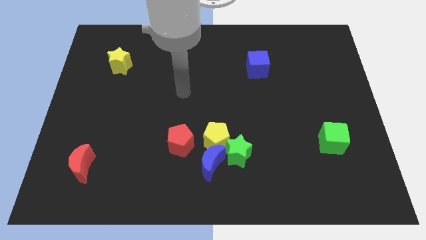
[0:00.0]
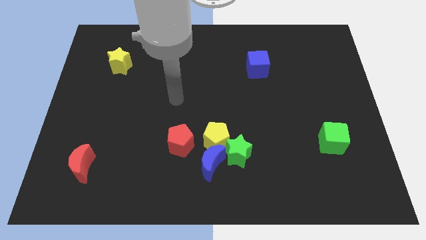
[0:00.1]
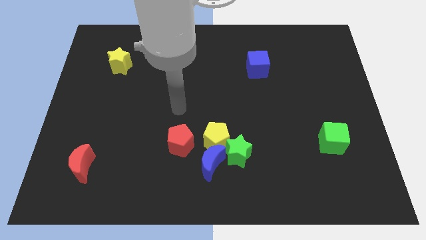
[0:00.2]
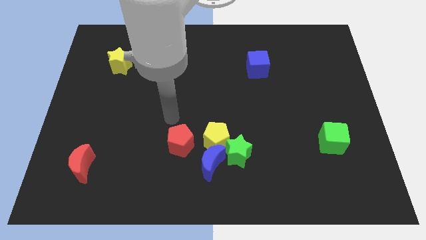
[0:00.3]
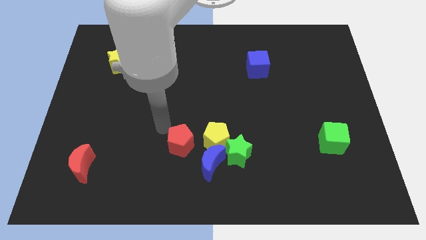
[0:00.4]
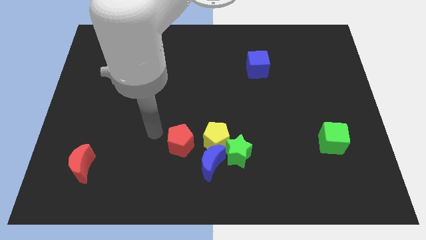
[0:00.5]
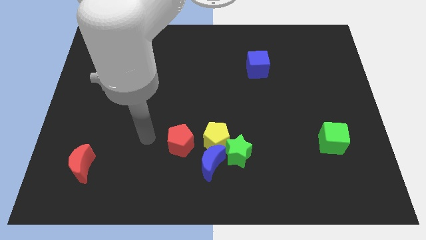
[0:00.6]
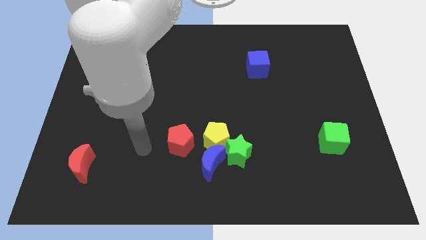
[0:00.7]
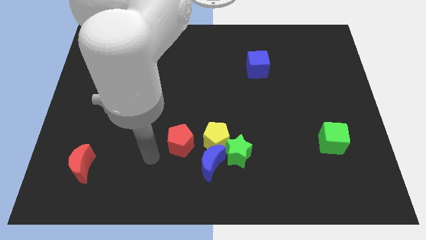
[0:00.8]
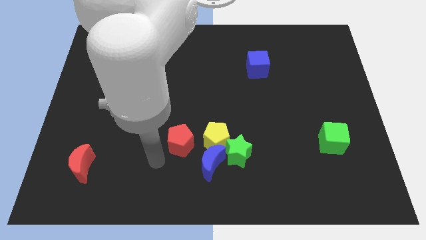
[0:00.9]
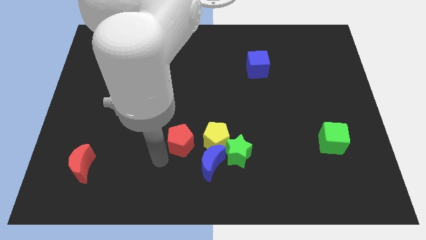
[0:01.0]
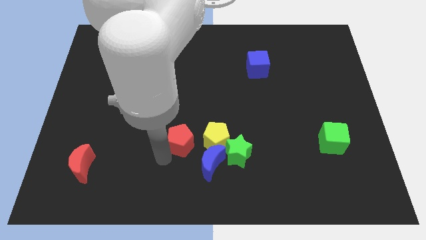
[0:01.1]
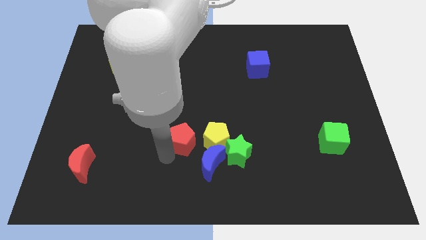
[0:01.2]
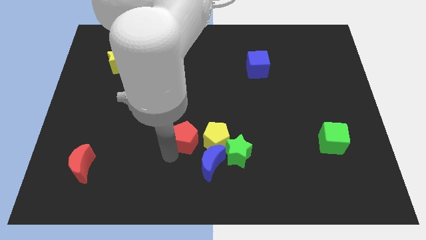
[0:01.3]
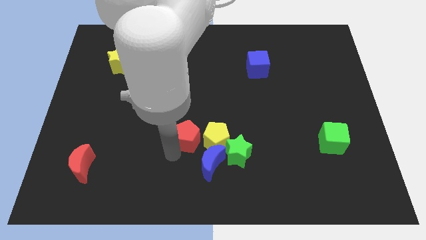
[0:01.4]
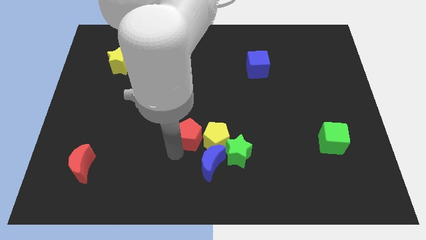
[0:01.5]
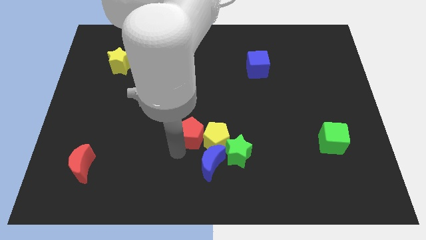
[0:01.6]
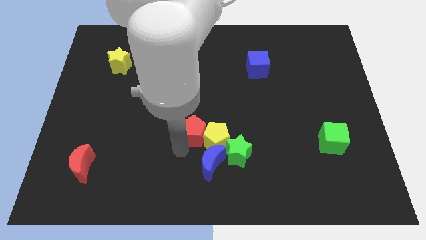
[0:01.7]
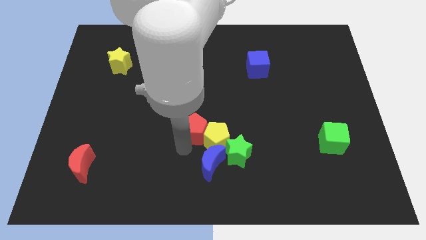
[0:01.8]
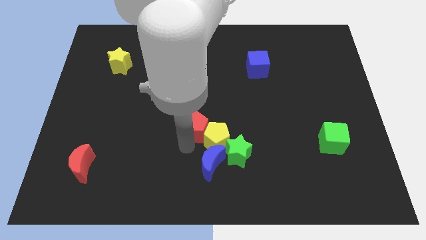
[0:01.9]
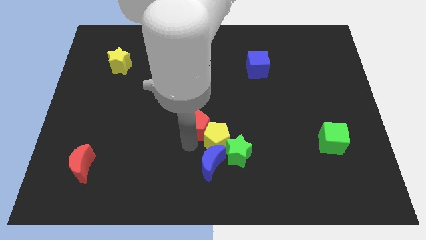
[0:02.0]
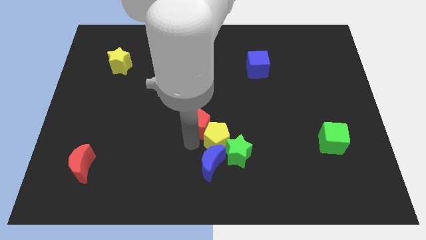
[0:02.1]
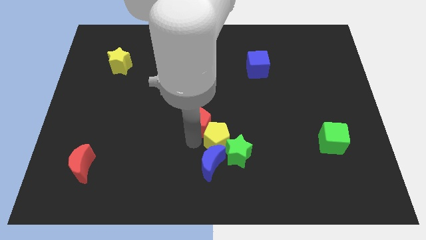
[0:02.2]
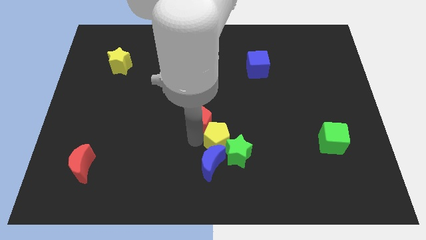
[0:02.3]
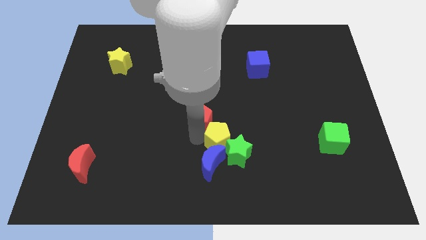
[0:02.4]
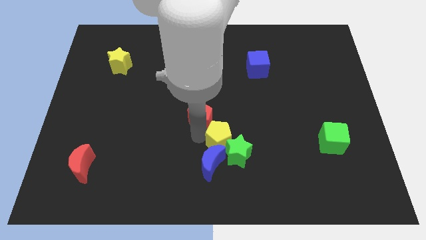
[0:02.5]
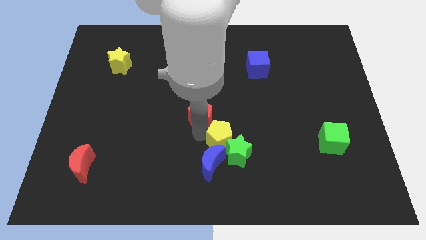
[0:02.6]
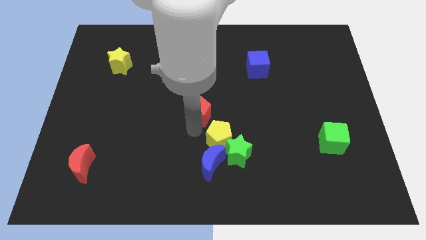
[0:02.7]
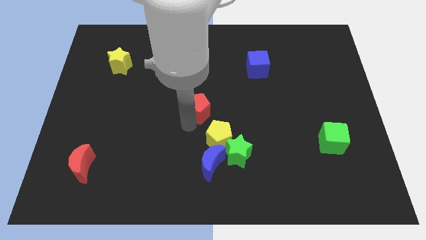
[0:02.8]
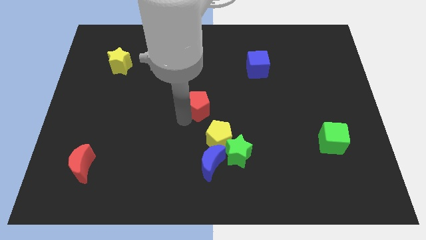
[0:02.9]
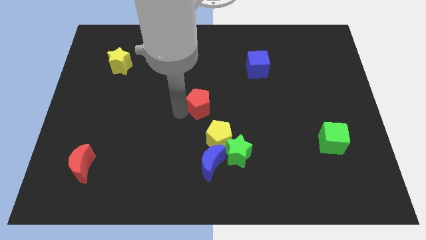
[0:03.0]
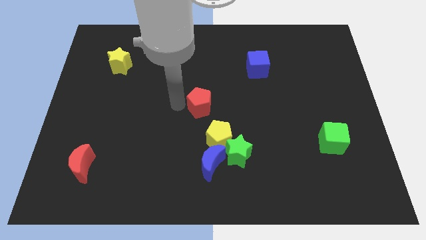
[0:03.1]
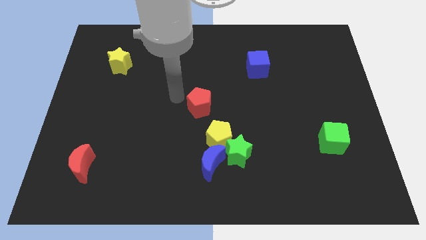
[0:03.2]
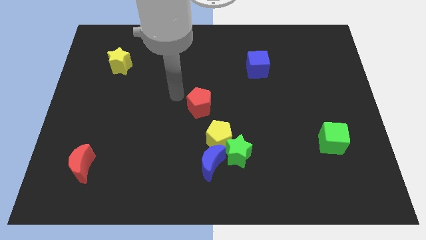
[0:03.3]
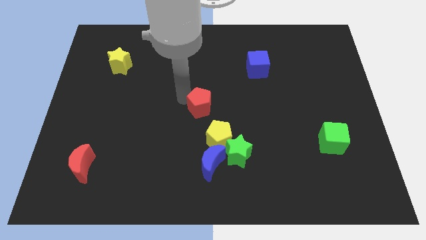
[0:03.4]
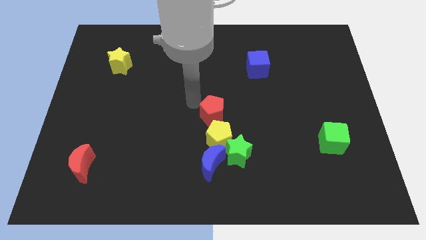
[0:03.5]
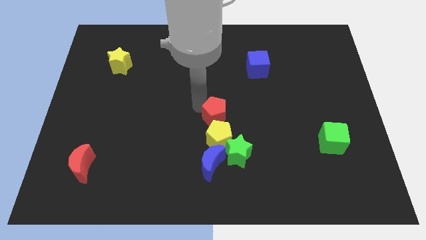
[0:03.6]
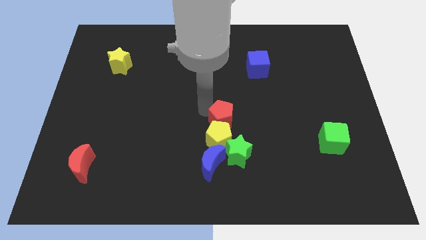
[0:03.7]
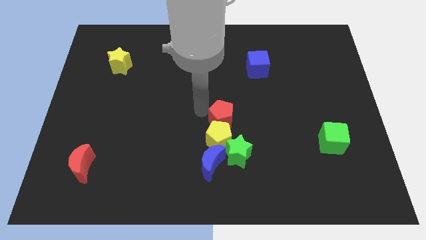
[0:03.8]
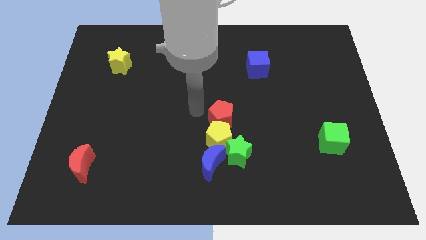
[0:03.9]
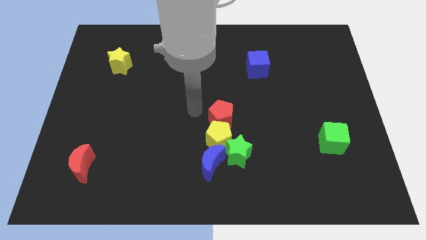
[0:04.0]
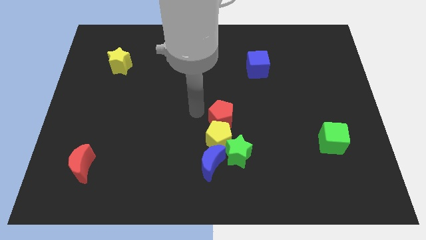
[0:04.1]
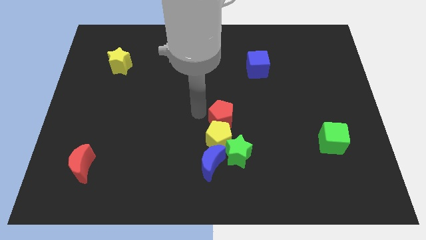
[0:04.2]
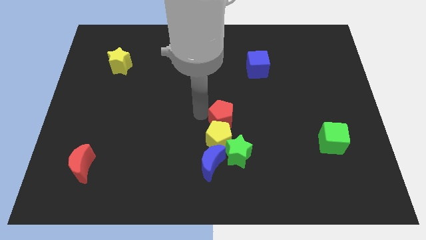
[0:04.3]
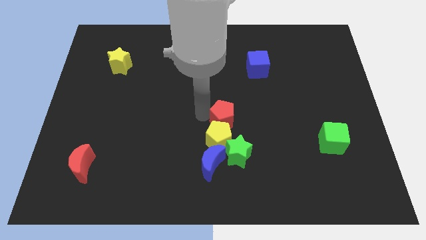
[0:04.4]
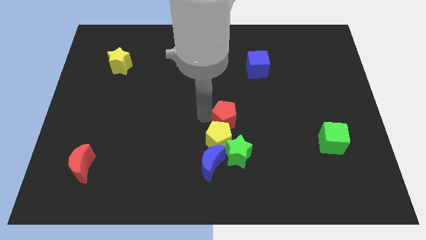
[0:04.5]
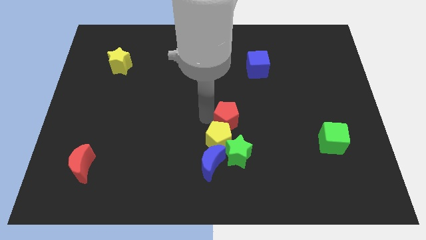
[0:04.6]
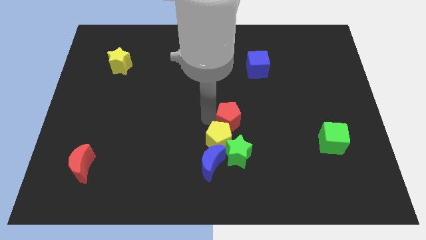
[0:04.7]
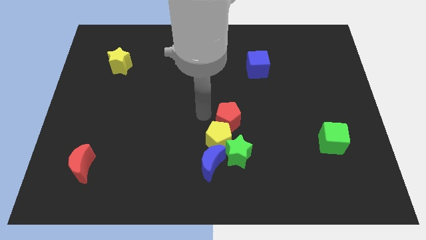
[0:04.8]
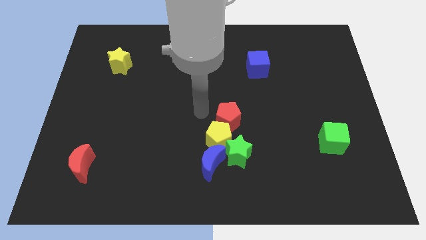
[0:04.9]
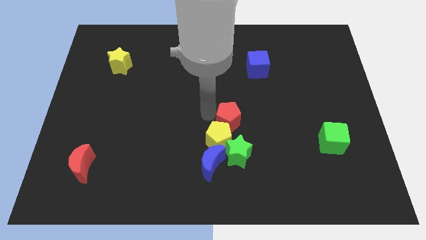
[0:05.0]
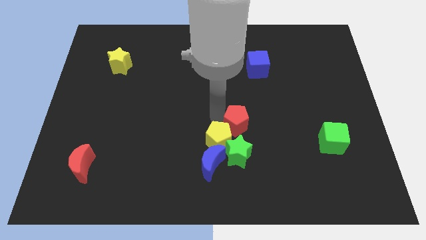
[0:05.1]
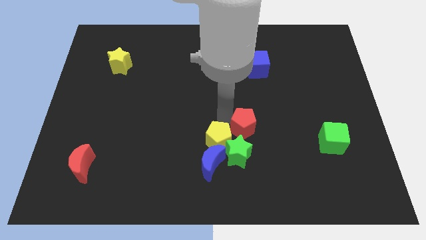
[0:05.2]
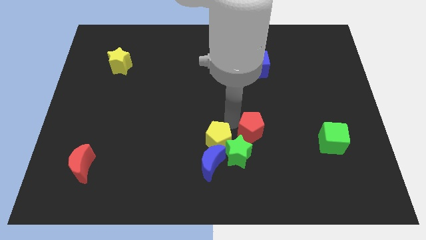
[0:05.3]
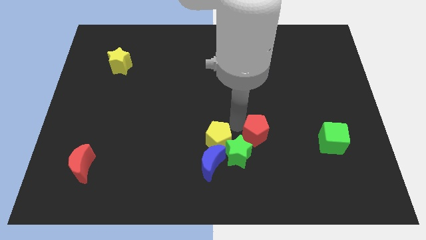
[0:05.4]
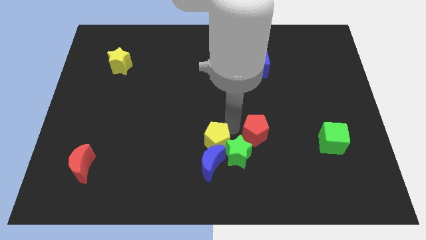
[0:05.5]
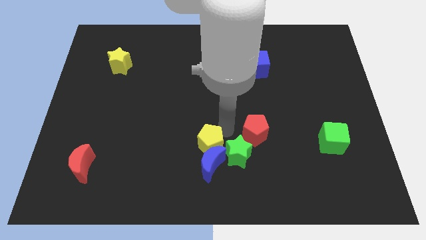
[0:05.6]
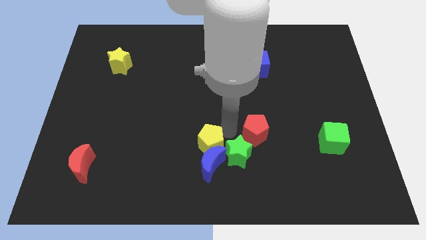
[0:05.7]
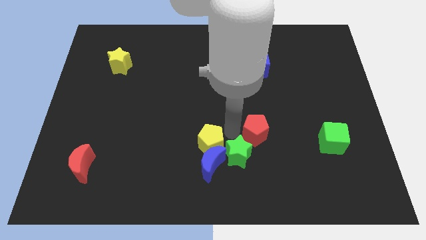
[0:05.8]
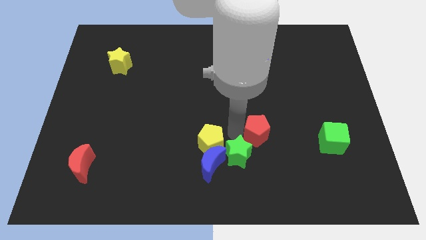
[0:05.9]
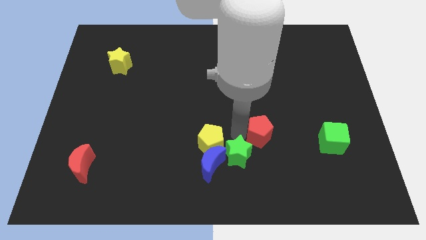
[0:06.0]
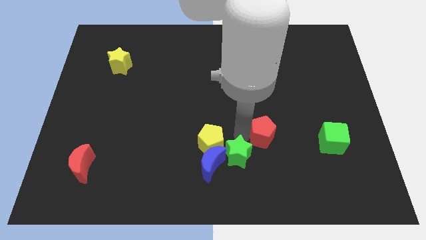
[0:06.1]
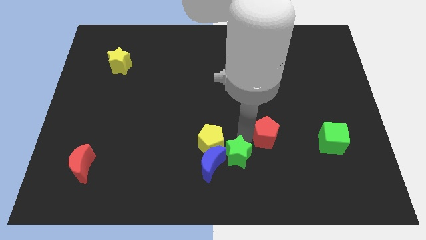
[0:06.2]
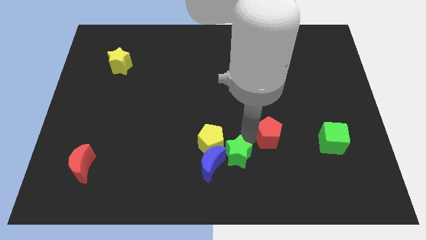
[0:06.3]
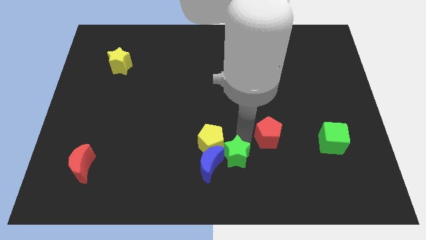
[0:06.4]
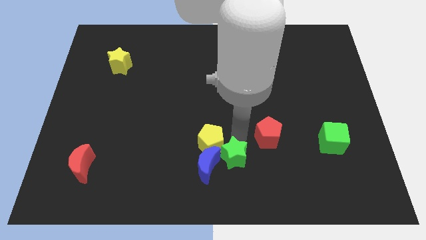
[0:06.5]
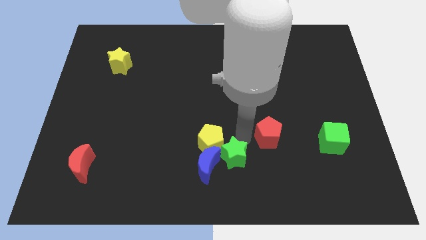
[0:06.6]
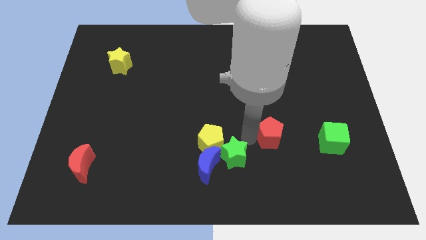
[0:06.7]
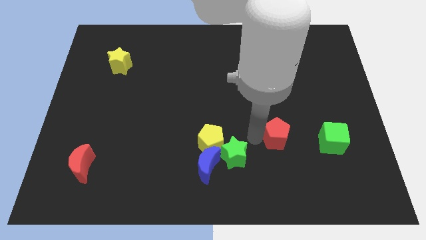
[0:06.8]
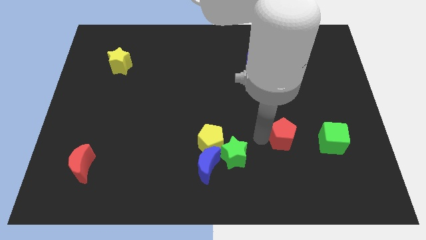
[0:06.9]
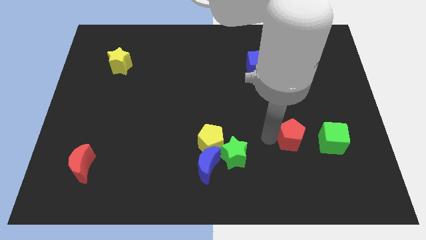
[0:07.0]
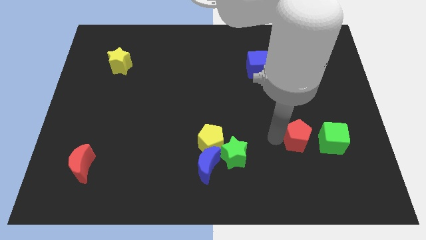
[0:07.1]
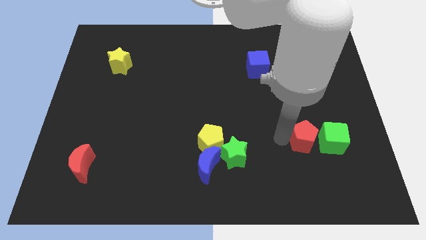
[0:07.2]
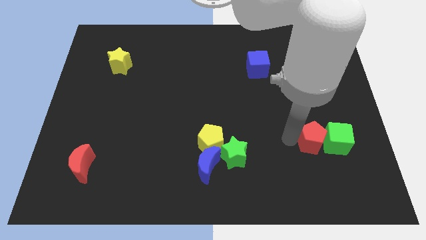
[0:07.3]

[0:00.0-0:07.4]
put the red pentagon towards the green cube

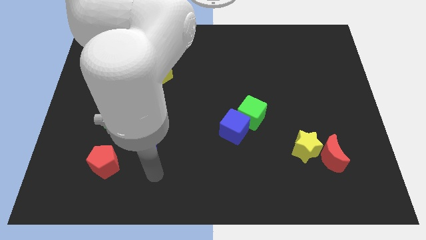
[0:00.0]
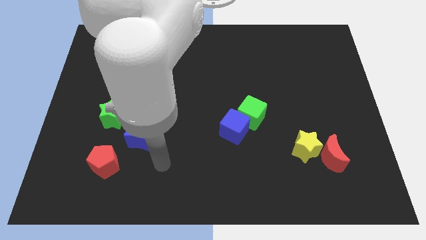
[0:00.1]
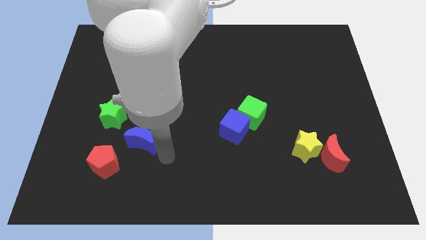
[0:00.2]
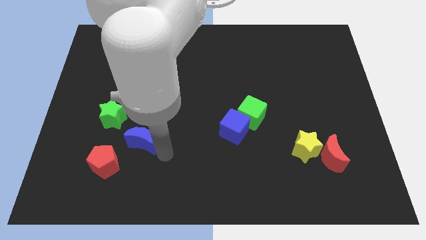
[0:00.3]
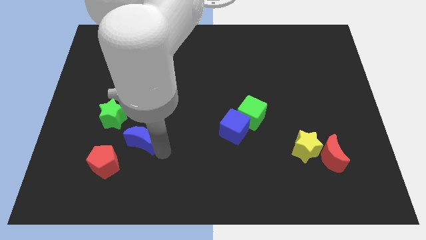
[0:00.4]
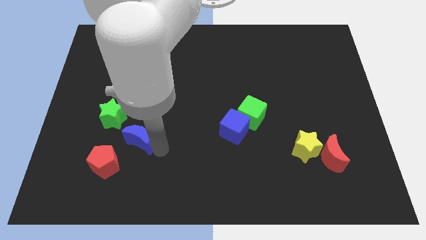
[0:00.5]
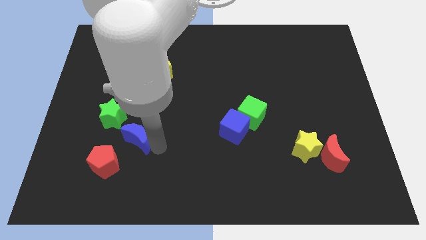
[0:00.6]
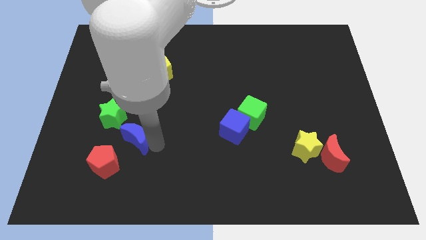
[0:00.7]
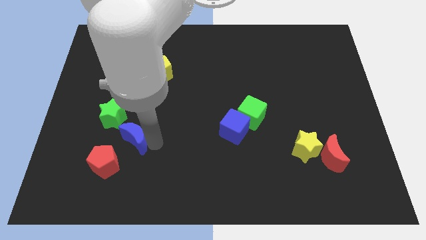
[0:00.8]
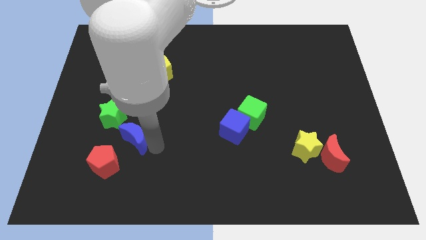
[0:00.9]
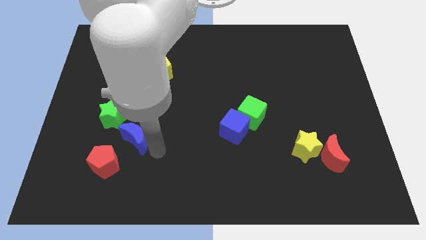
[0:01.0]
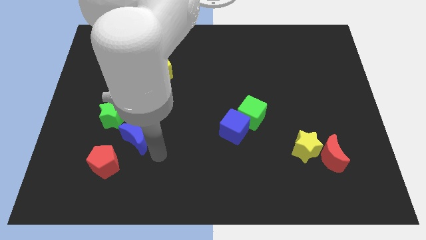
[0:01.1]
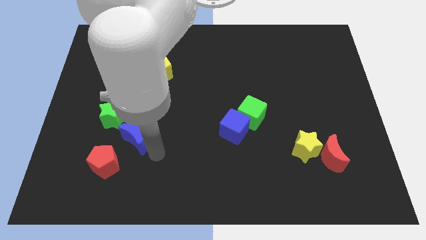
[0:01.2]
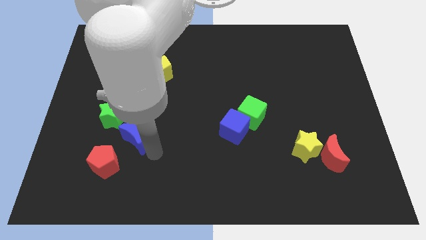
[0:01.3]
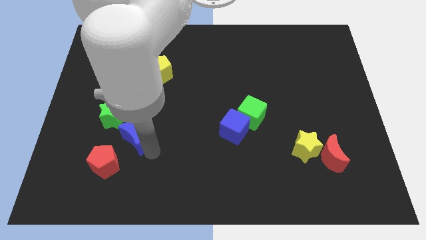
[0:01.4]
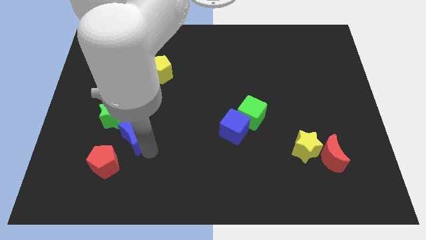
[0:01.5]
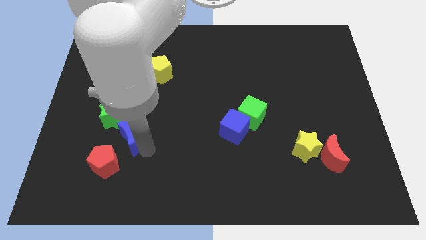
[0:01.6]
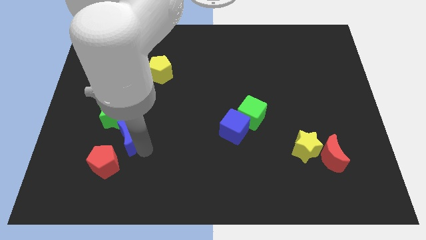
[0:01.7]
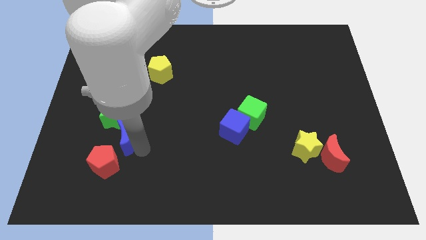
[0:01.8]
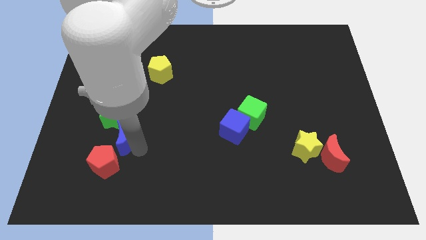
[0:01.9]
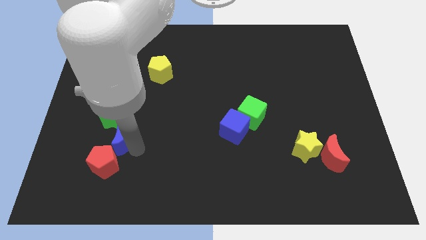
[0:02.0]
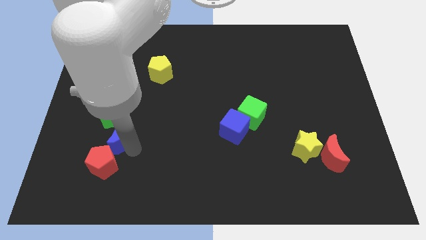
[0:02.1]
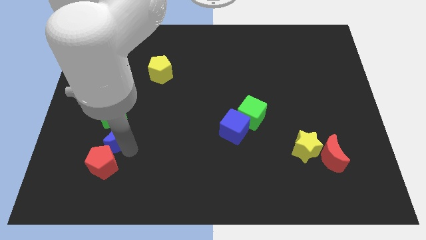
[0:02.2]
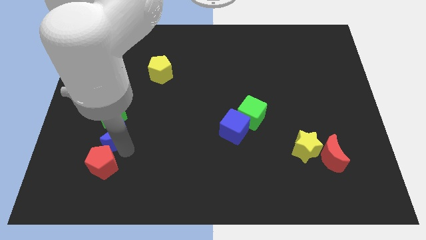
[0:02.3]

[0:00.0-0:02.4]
slide the blue moon close to the green star
